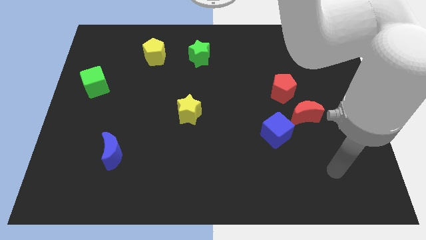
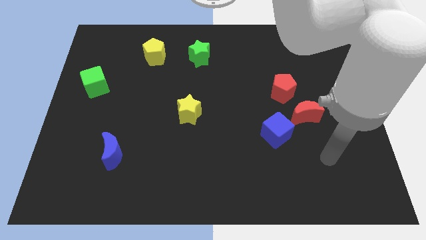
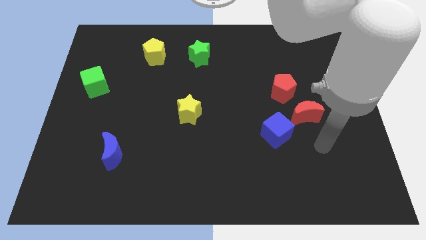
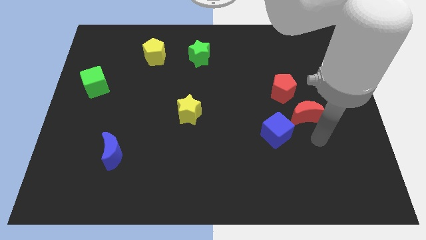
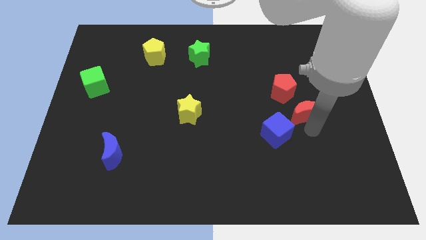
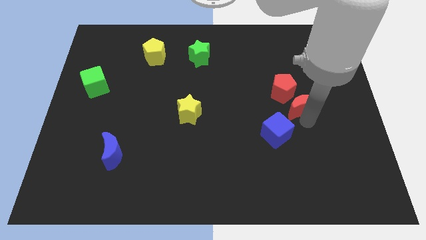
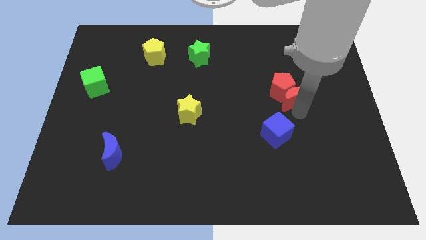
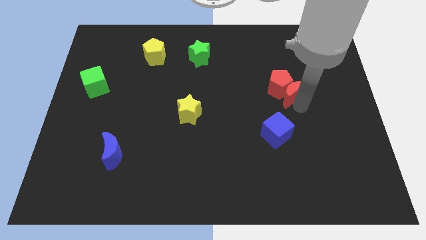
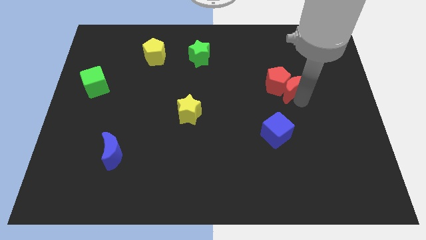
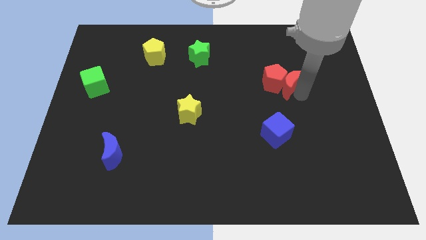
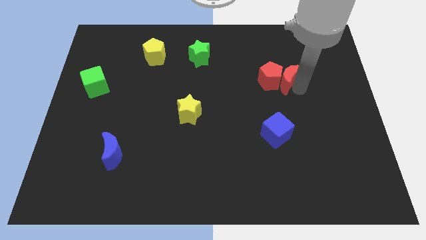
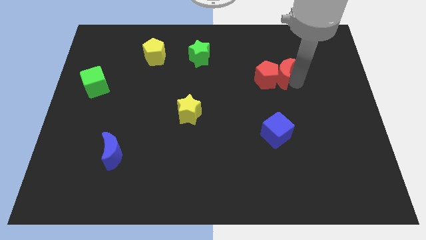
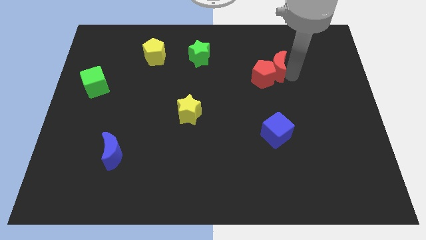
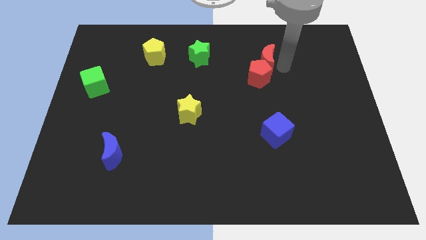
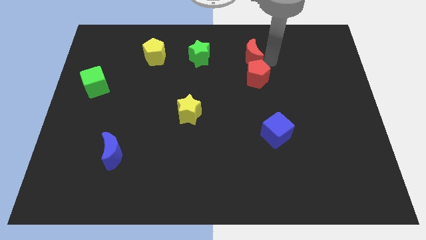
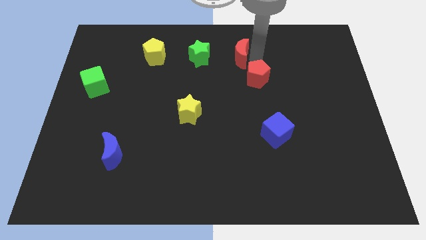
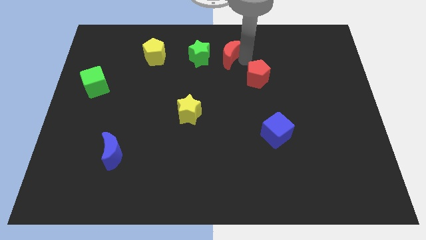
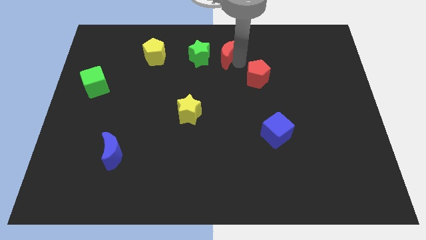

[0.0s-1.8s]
pull the red pentagon apart from the red moon

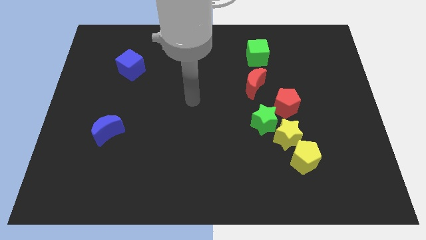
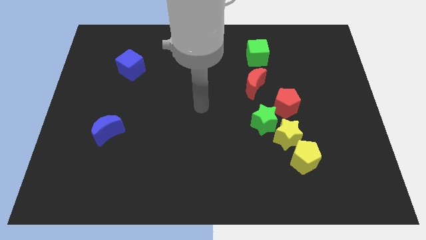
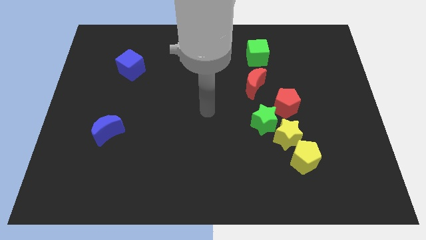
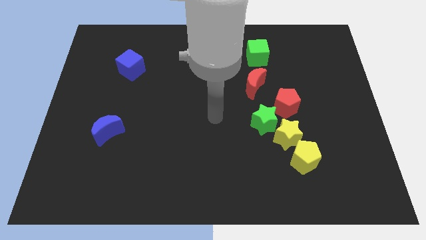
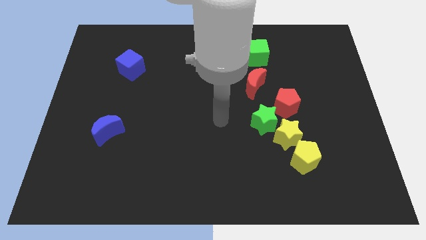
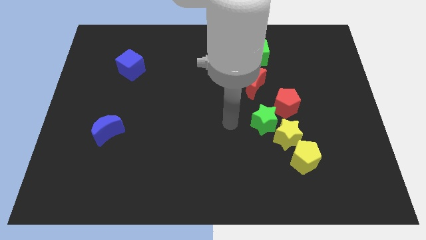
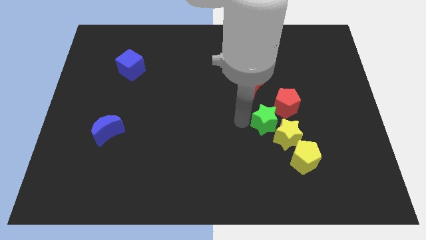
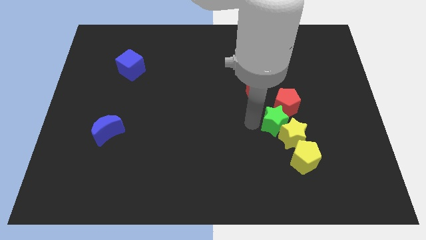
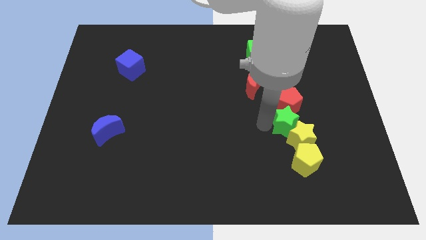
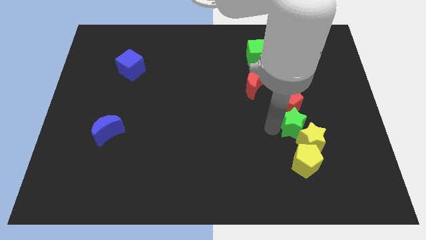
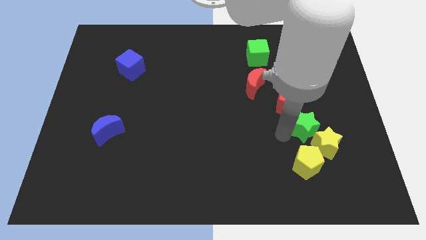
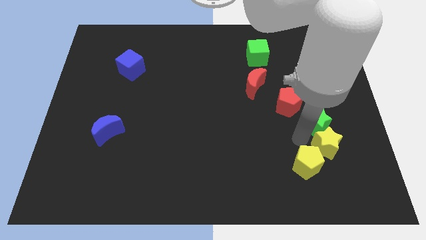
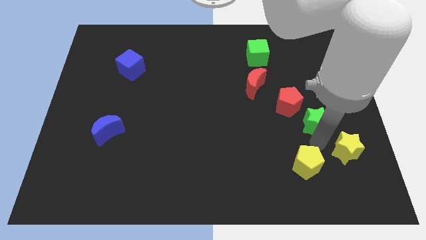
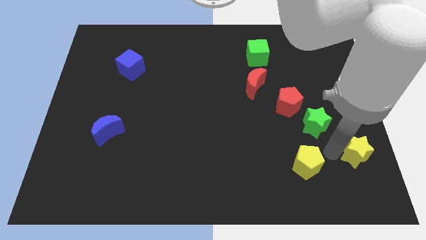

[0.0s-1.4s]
pull the yellow pentagon apart from the yellow star

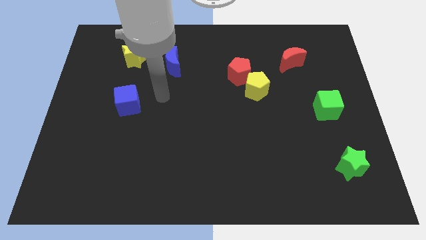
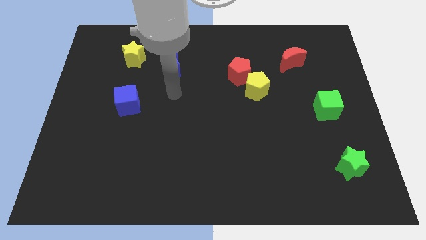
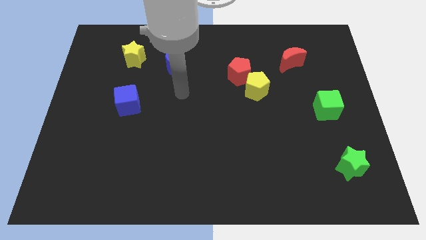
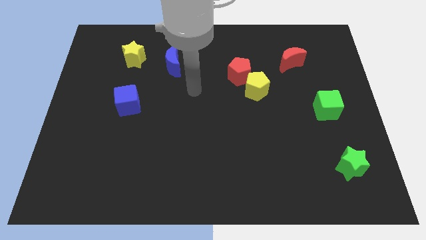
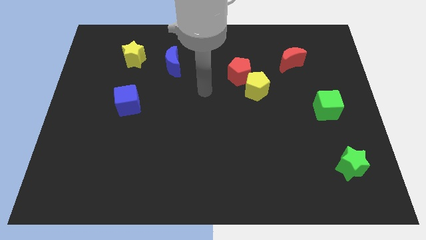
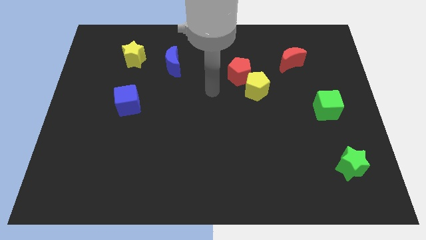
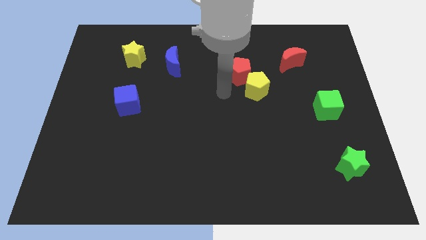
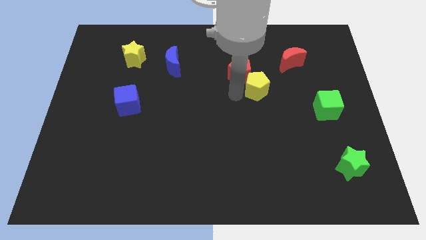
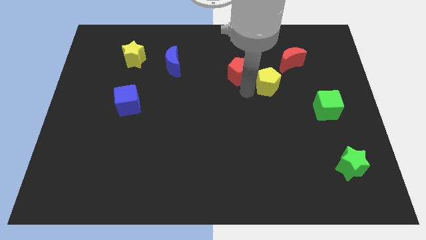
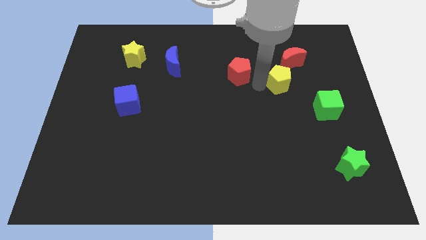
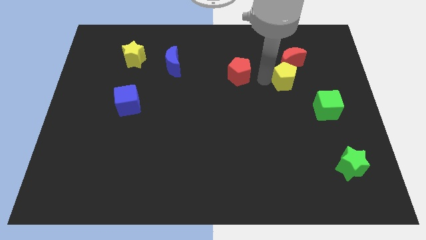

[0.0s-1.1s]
move the red pentagon away from the yellow pentagon

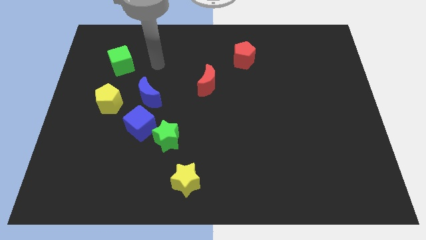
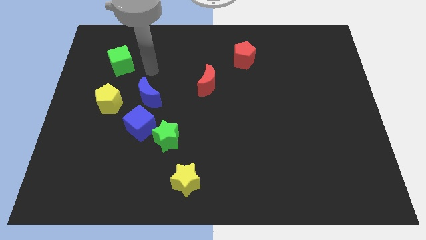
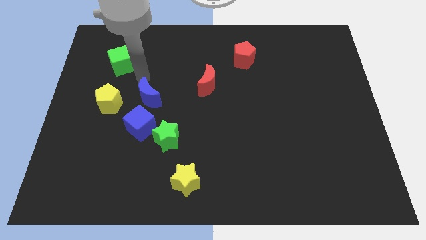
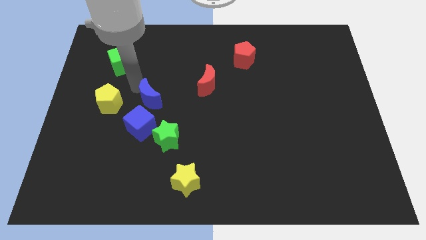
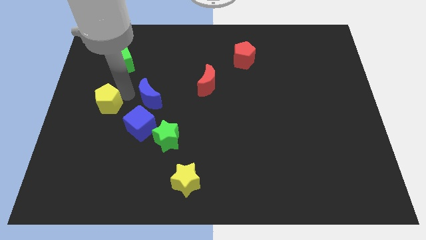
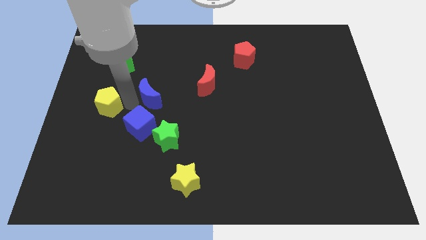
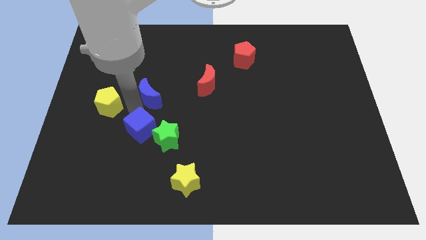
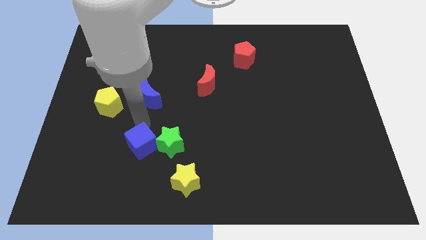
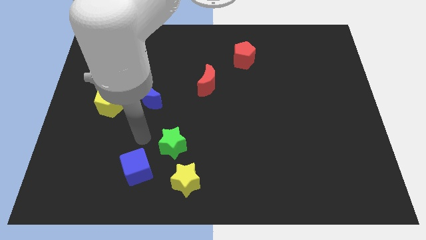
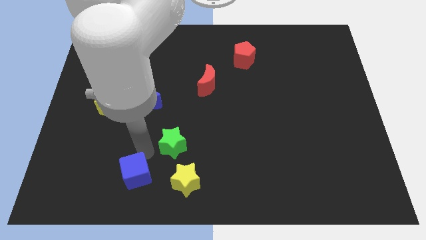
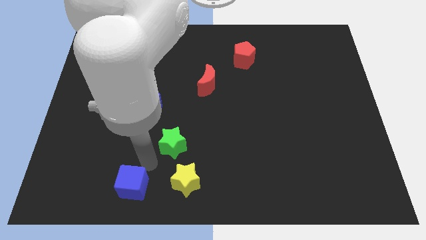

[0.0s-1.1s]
pull the green star apart from the blue cube

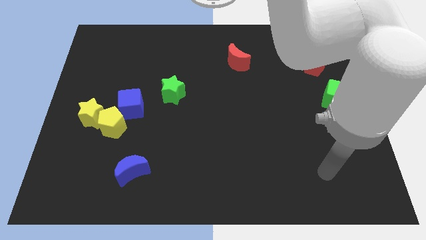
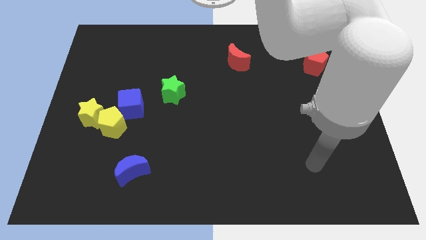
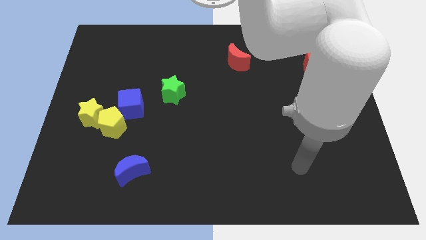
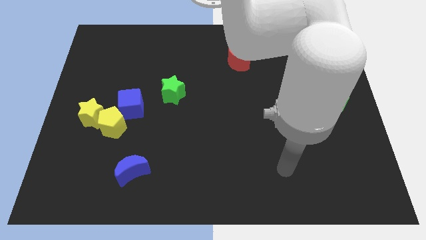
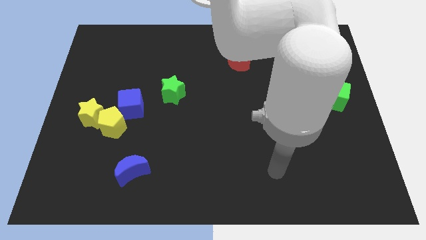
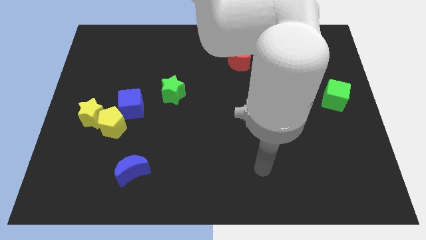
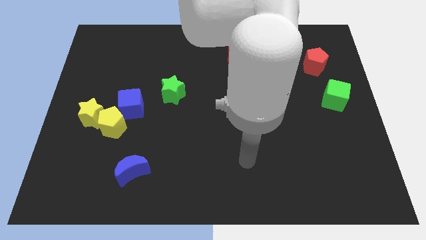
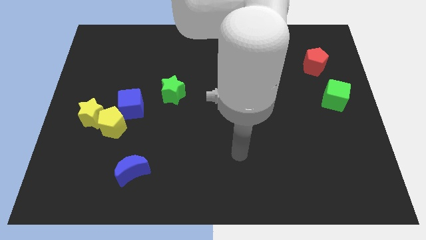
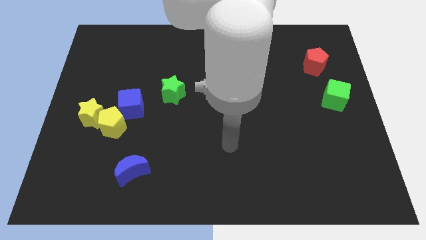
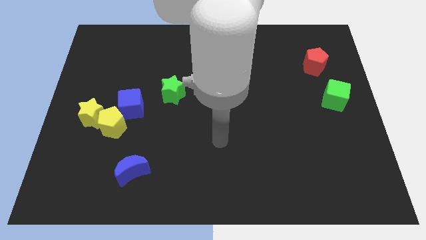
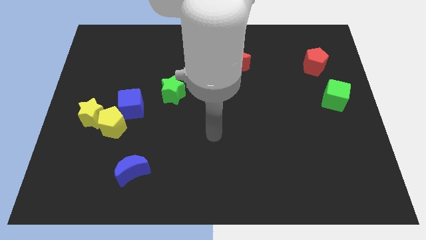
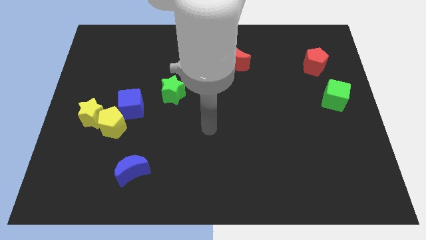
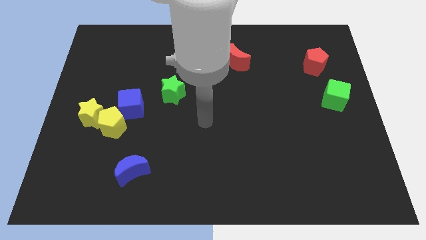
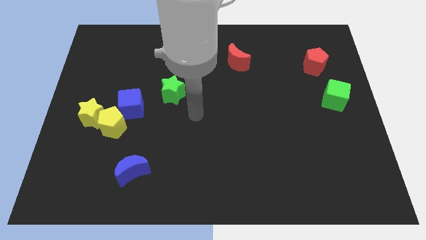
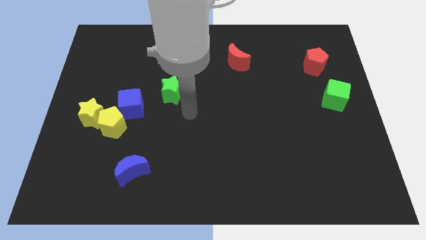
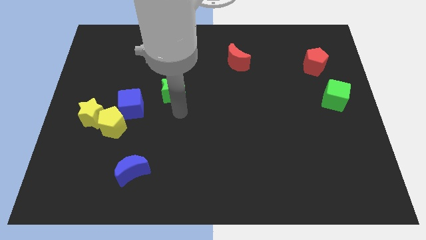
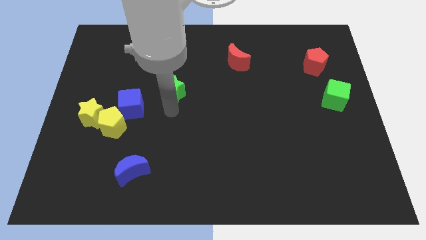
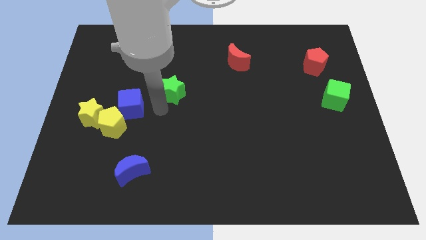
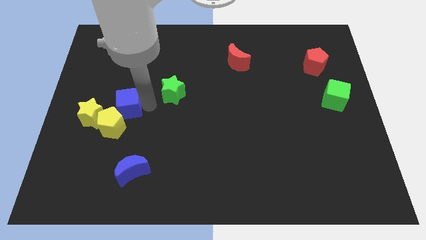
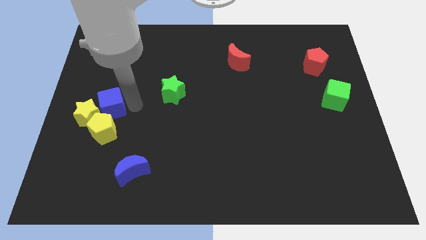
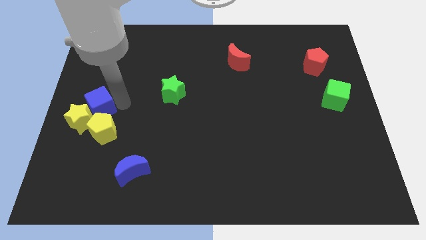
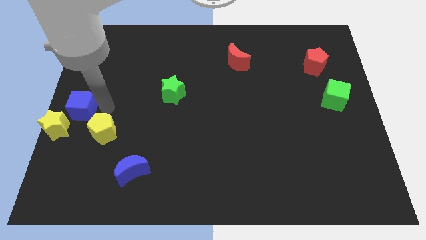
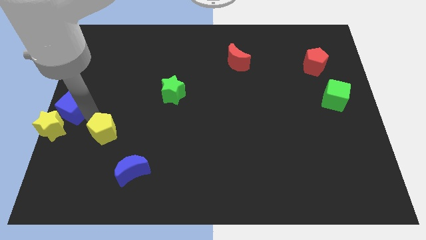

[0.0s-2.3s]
move the yellow pentagon away from the yellow star and blue cube

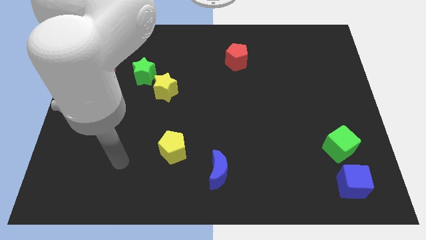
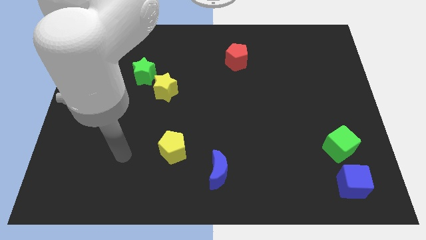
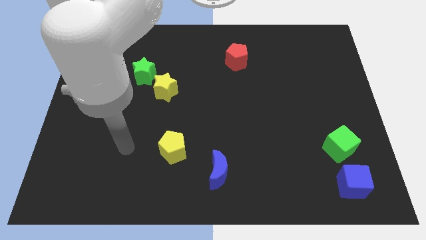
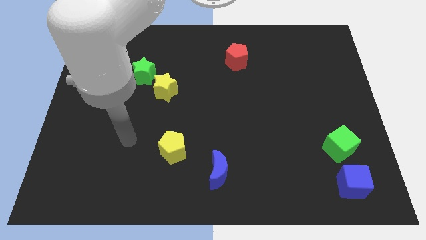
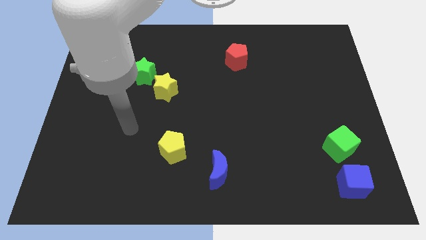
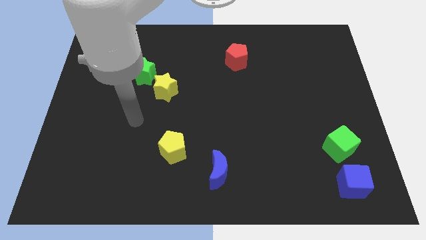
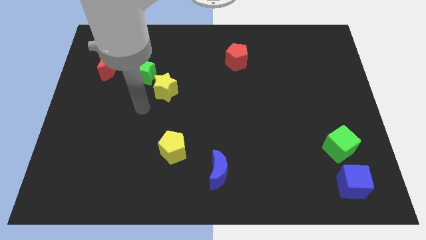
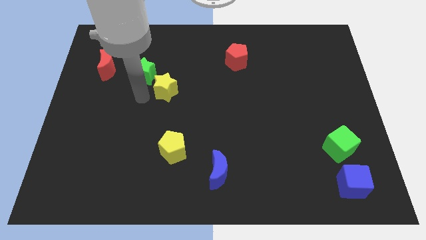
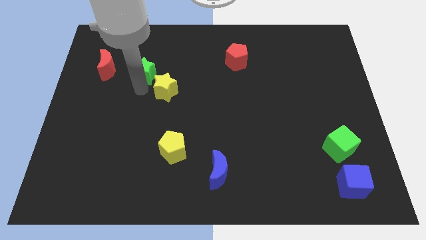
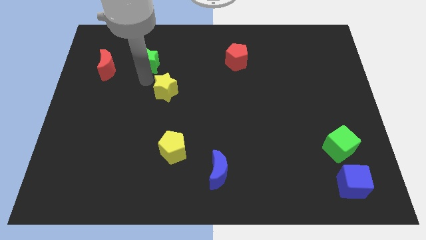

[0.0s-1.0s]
move the yellow star away from the green star

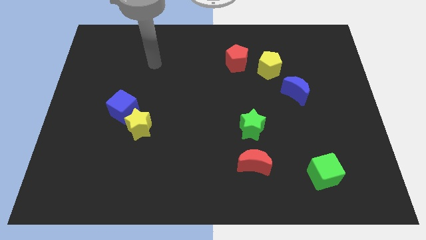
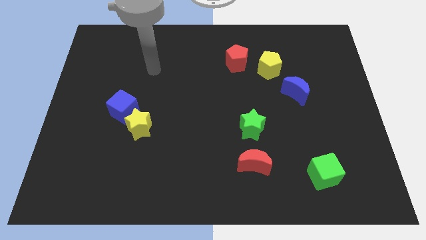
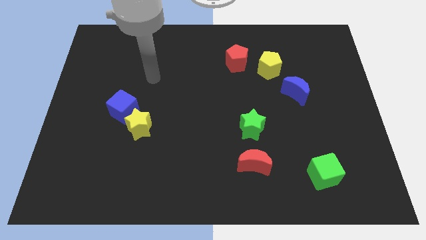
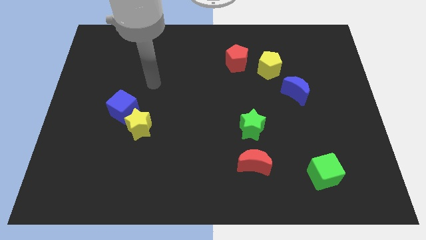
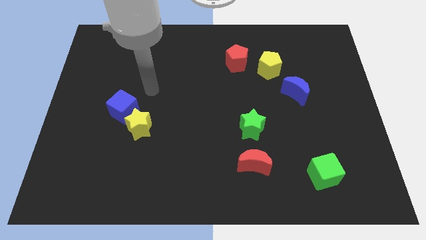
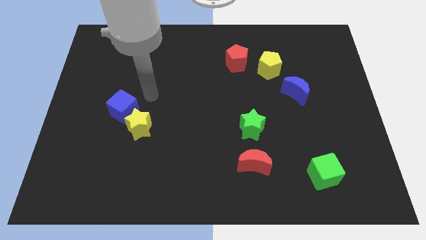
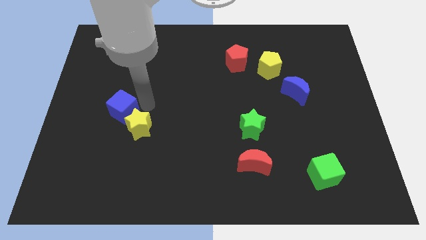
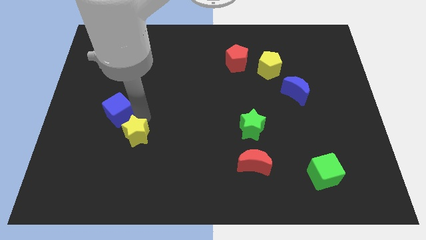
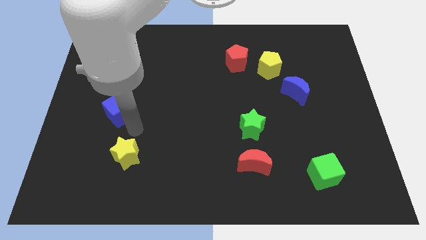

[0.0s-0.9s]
pull the blue cube apart from the yellow star
